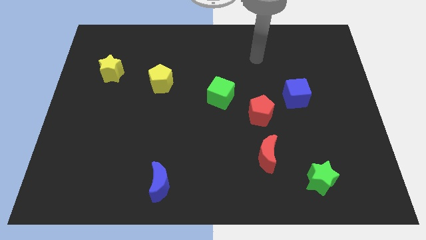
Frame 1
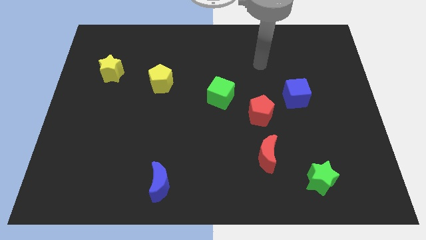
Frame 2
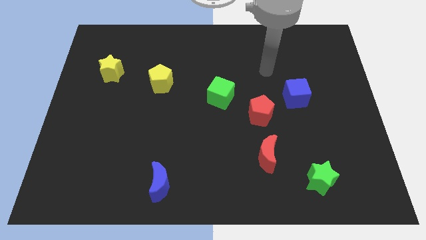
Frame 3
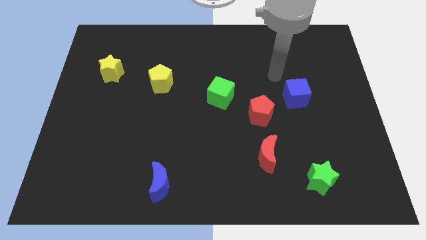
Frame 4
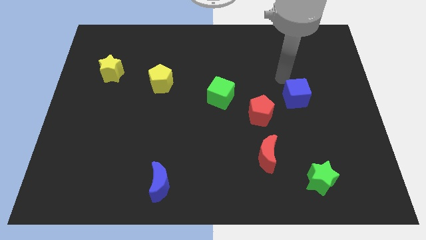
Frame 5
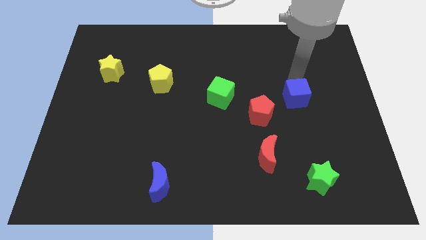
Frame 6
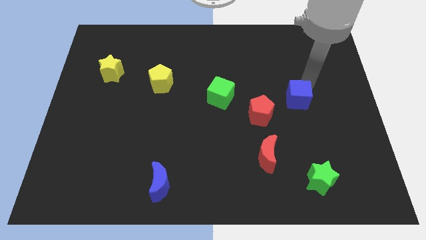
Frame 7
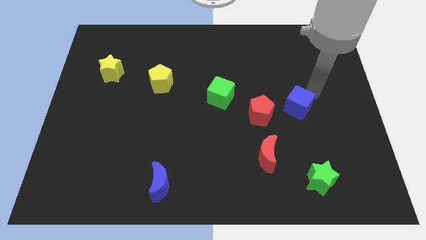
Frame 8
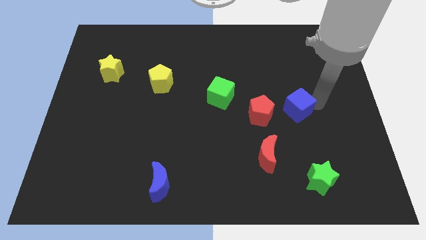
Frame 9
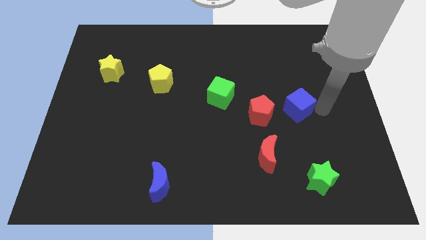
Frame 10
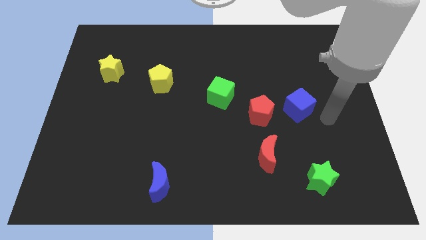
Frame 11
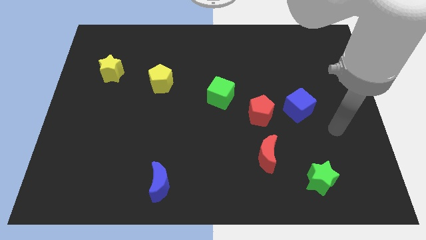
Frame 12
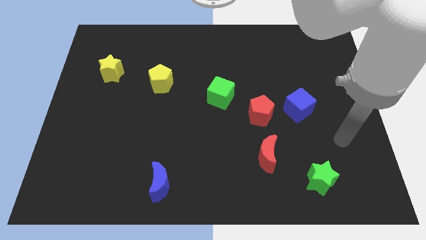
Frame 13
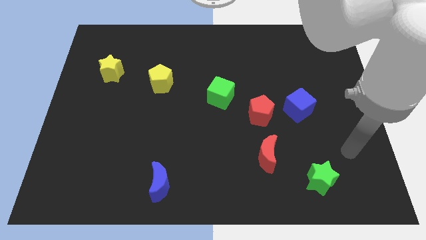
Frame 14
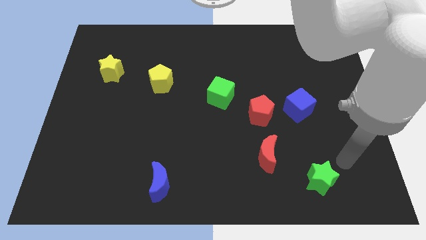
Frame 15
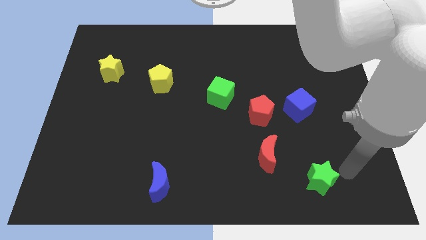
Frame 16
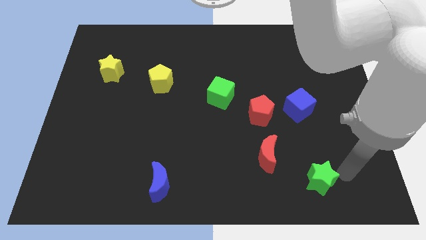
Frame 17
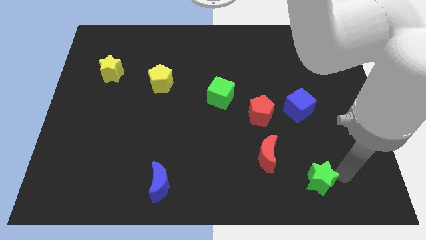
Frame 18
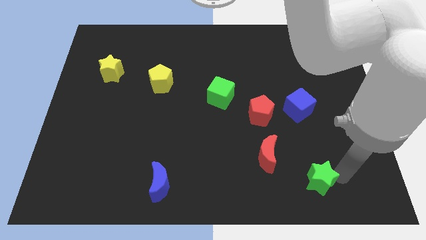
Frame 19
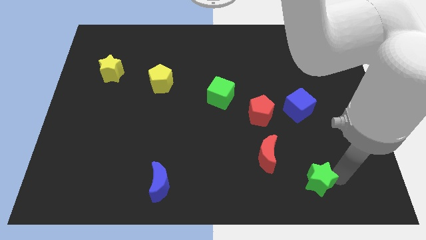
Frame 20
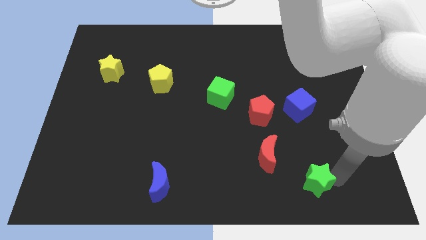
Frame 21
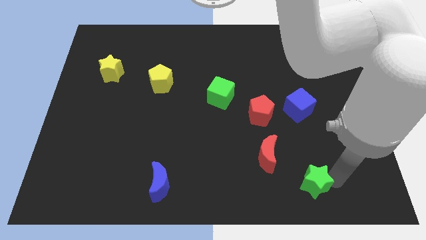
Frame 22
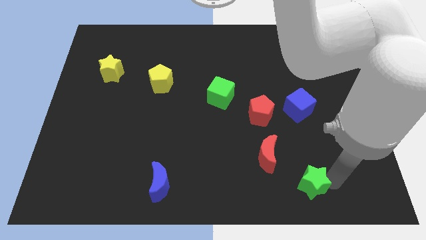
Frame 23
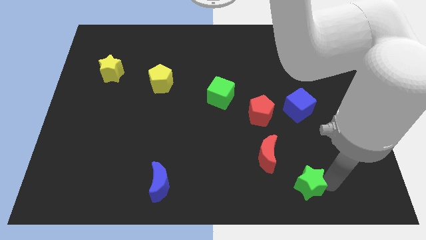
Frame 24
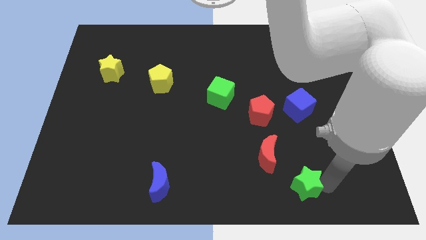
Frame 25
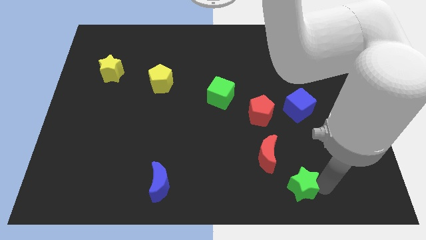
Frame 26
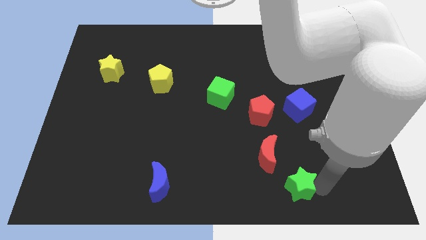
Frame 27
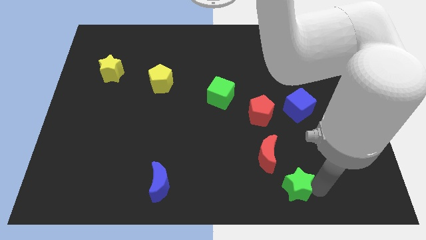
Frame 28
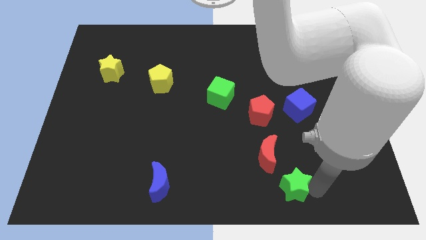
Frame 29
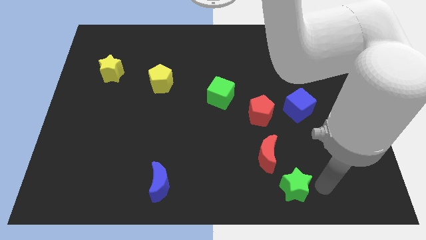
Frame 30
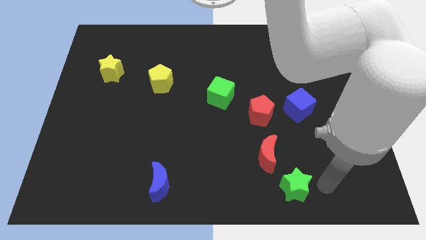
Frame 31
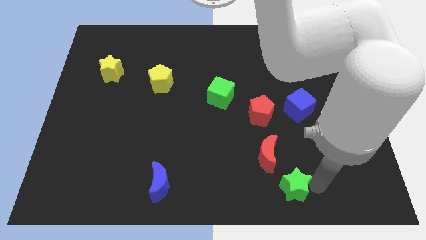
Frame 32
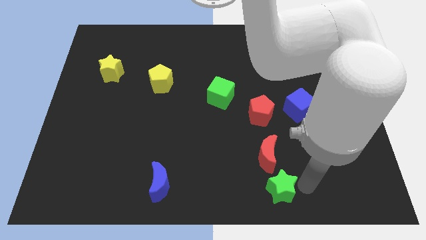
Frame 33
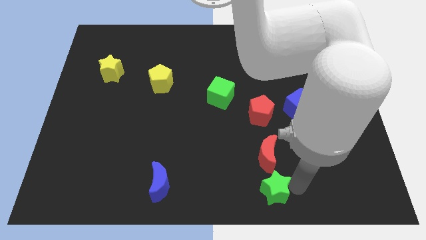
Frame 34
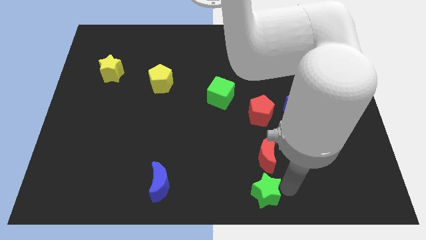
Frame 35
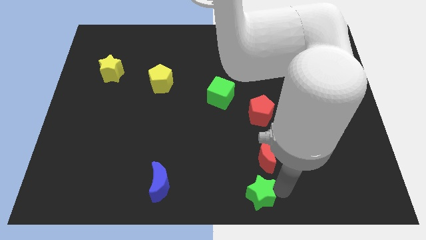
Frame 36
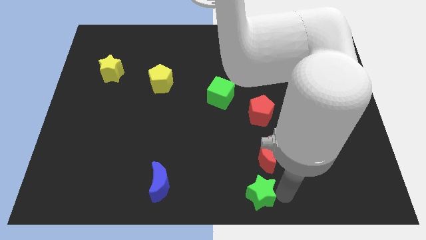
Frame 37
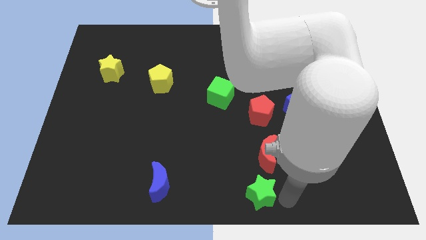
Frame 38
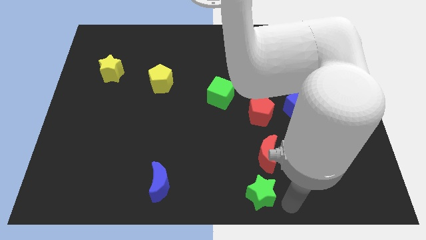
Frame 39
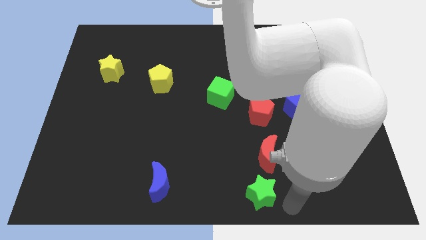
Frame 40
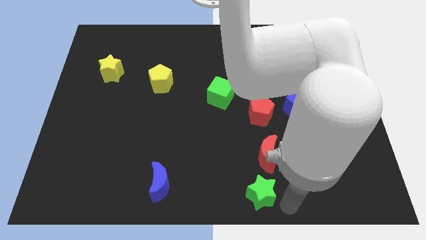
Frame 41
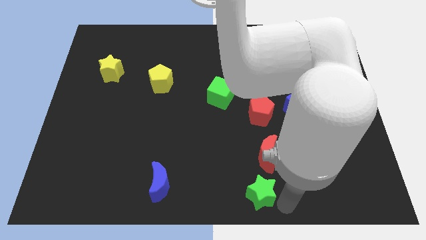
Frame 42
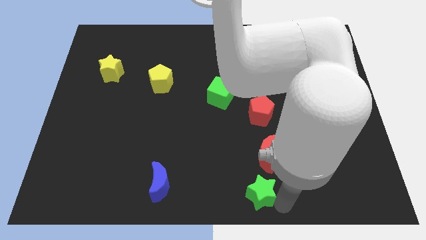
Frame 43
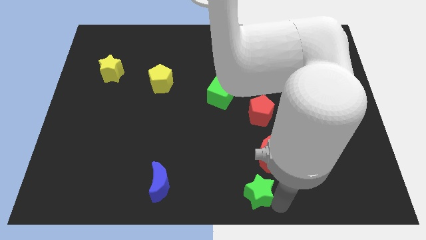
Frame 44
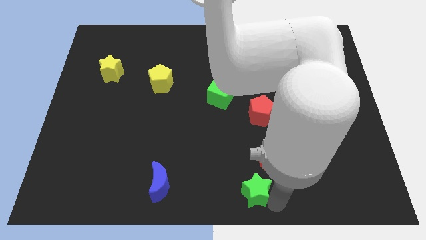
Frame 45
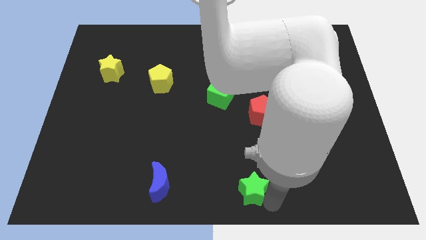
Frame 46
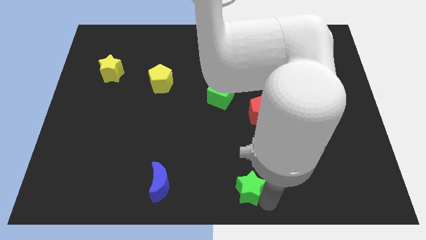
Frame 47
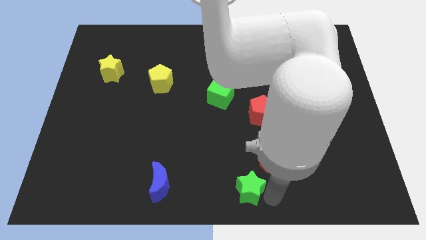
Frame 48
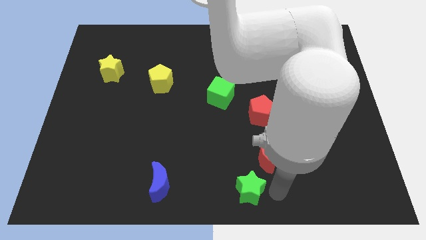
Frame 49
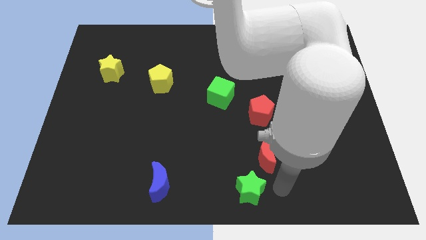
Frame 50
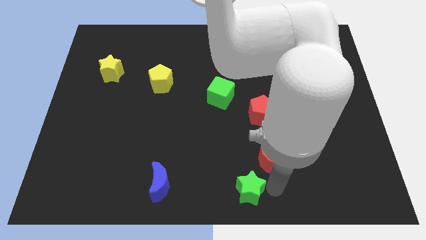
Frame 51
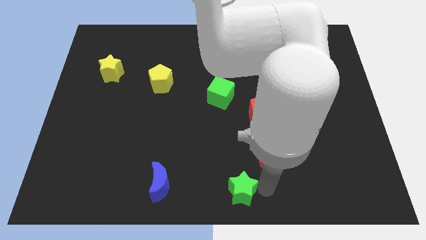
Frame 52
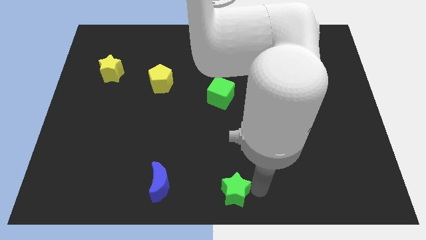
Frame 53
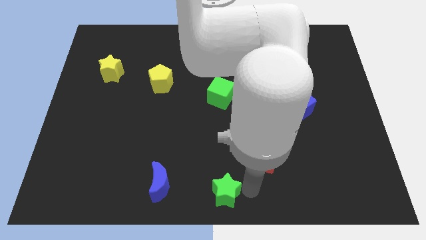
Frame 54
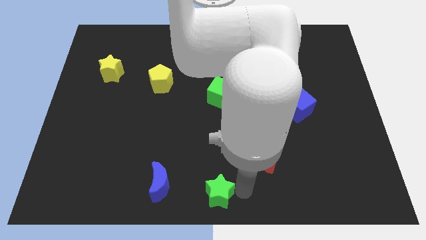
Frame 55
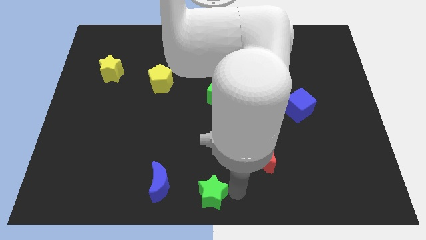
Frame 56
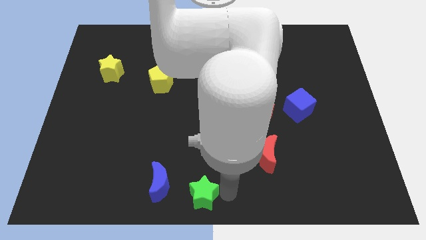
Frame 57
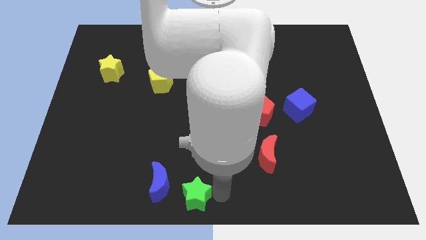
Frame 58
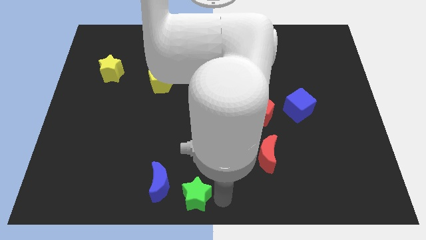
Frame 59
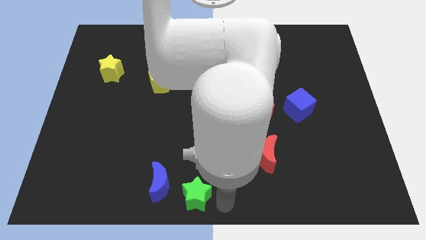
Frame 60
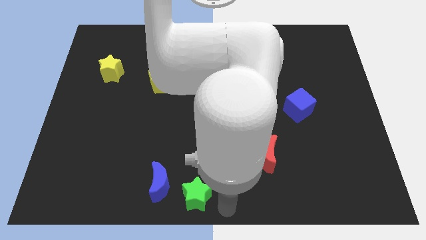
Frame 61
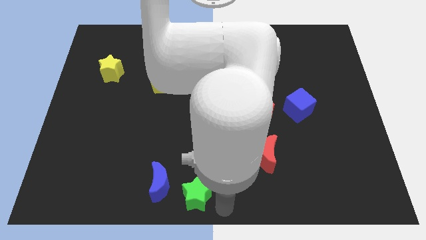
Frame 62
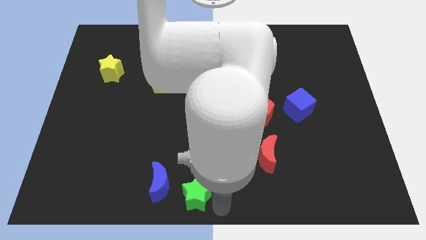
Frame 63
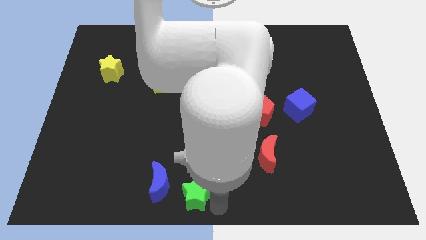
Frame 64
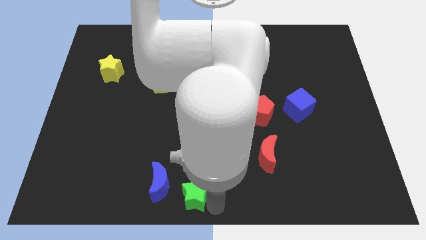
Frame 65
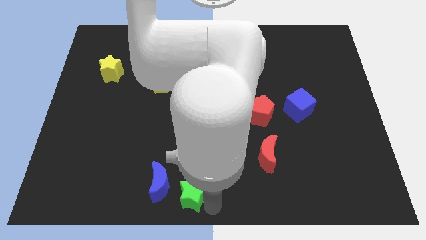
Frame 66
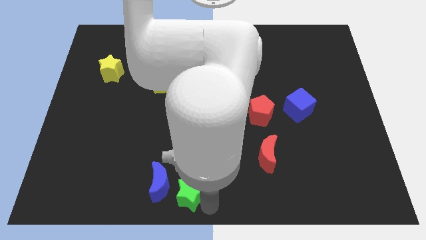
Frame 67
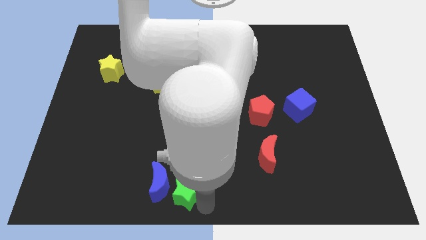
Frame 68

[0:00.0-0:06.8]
slide the green star next to the blue moon

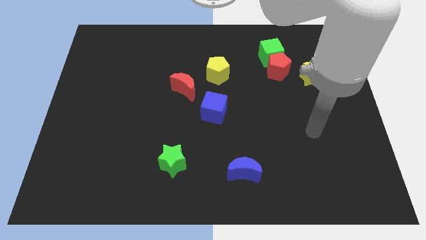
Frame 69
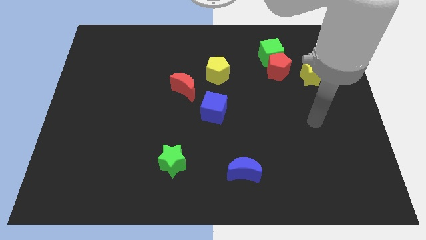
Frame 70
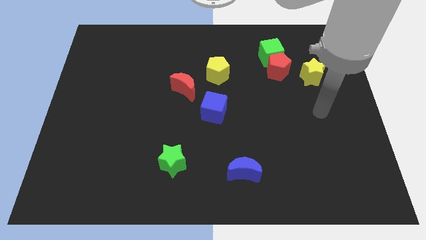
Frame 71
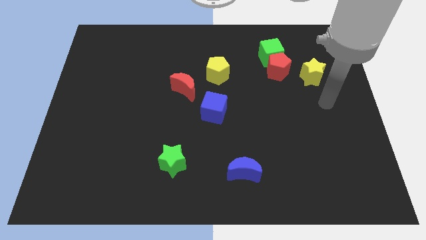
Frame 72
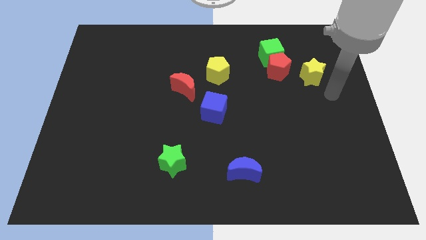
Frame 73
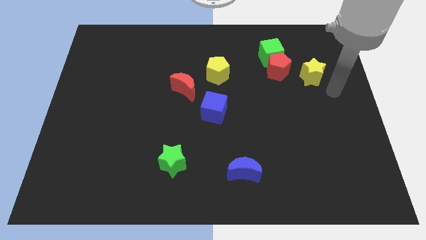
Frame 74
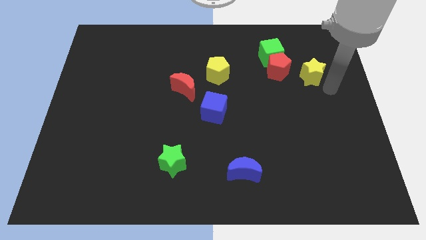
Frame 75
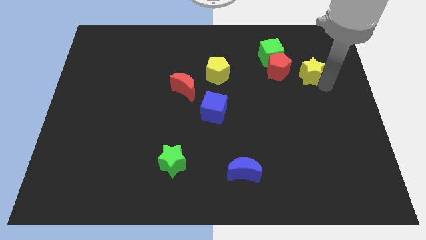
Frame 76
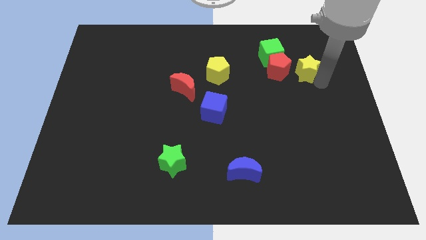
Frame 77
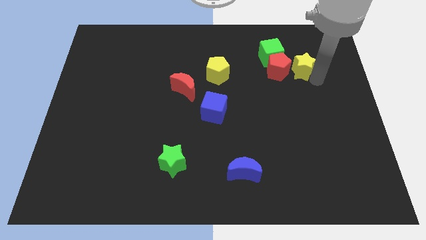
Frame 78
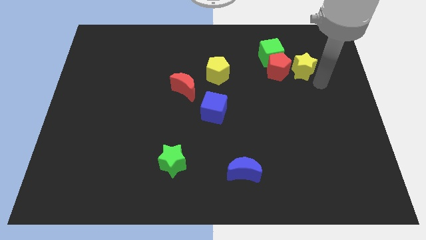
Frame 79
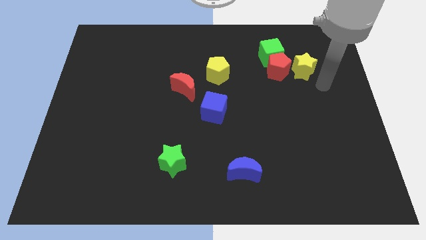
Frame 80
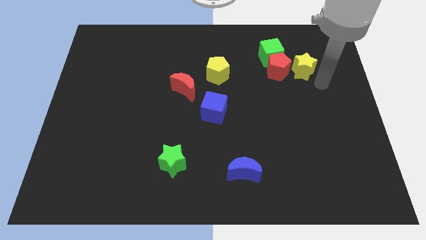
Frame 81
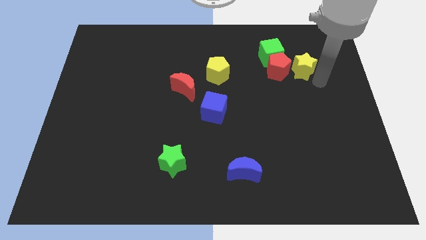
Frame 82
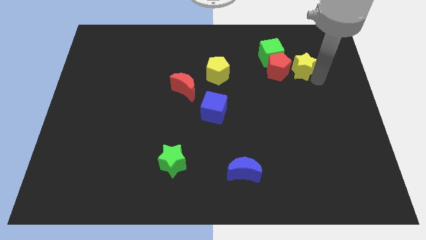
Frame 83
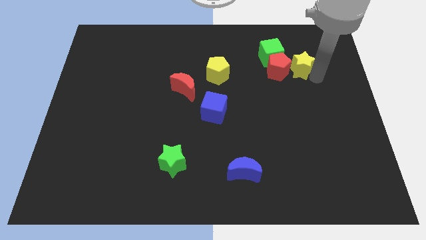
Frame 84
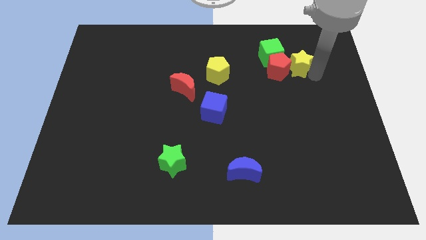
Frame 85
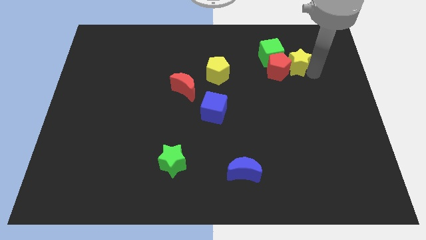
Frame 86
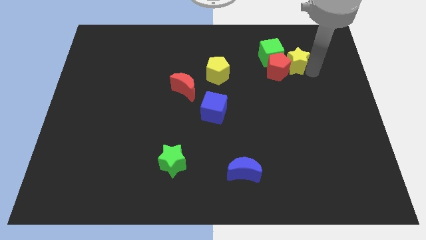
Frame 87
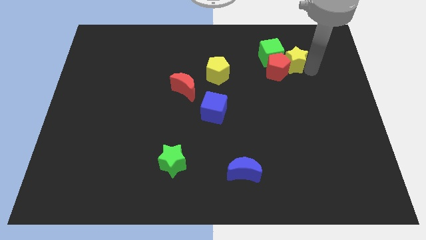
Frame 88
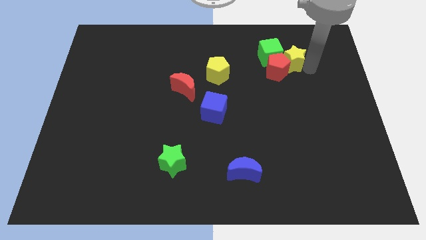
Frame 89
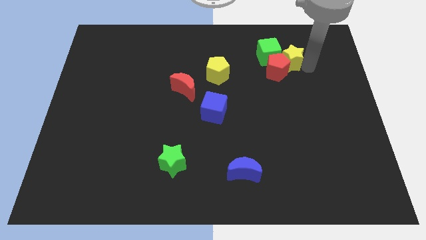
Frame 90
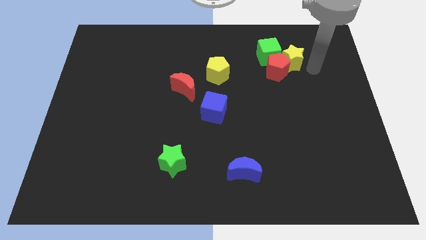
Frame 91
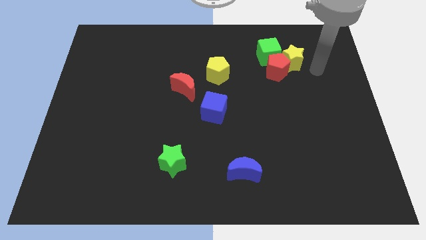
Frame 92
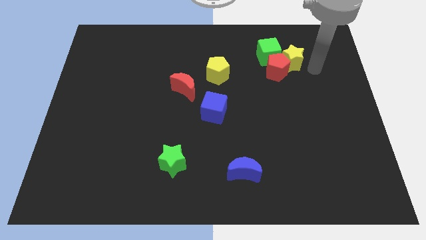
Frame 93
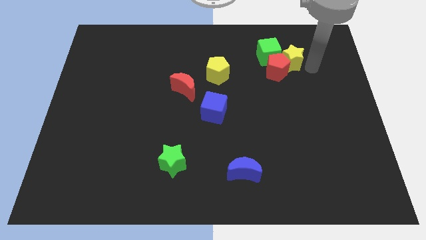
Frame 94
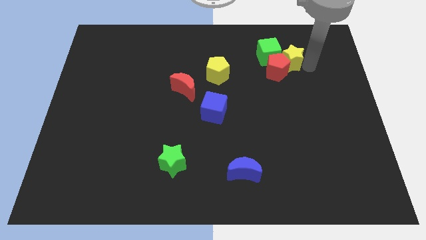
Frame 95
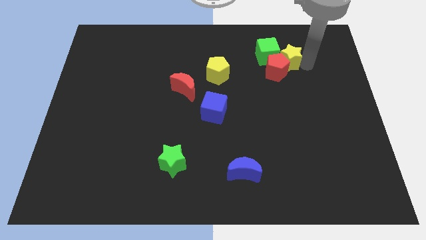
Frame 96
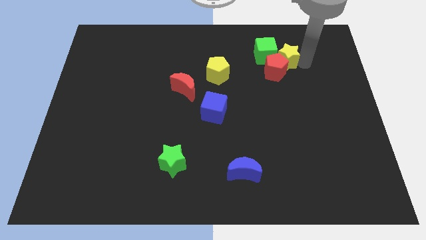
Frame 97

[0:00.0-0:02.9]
slide the yellow star next to the green cube
